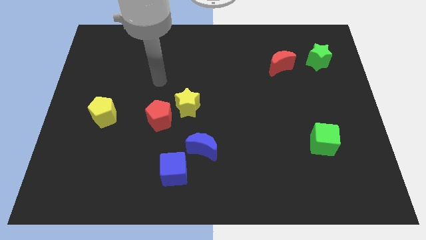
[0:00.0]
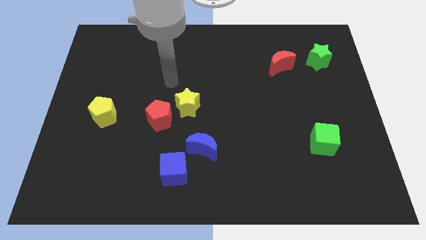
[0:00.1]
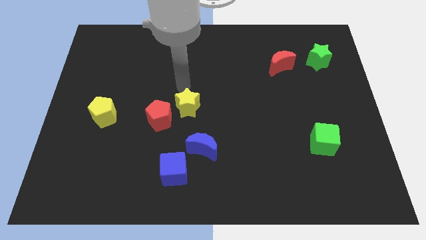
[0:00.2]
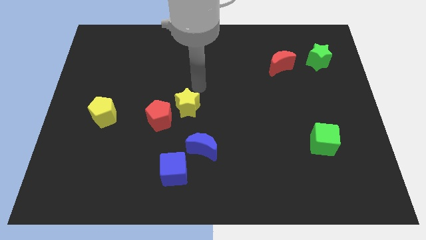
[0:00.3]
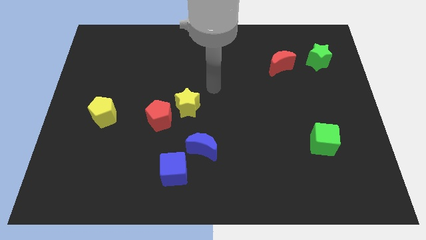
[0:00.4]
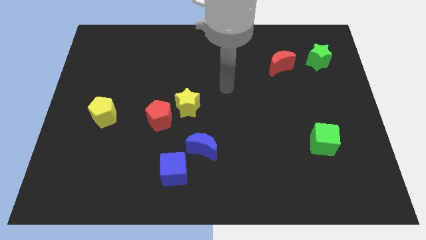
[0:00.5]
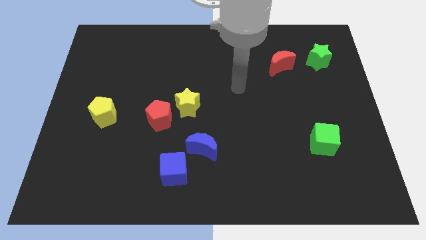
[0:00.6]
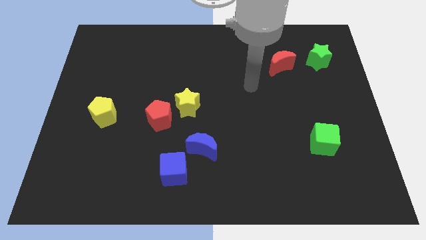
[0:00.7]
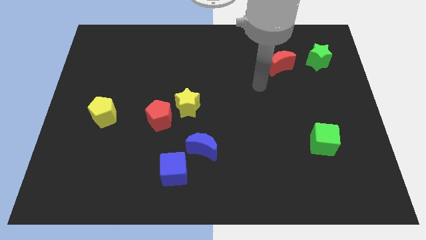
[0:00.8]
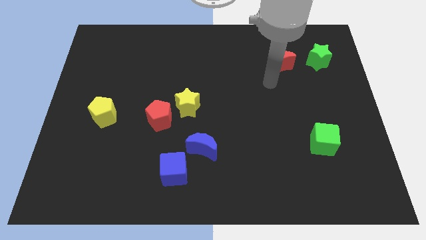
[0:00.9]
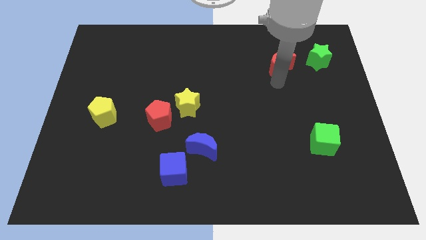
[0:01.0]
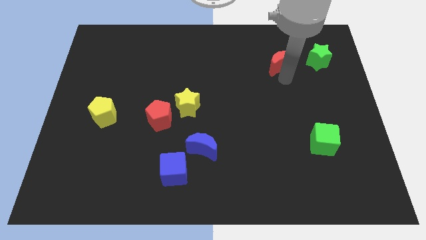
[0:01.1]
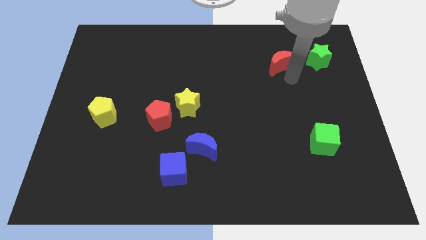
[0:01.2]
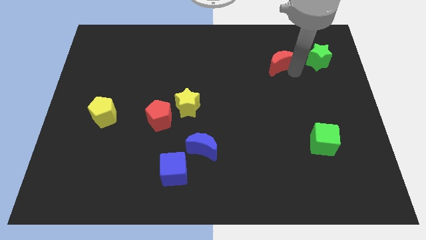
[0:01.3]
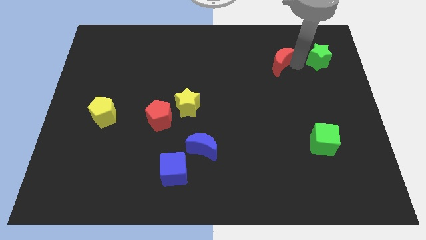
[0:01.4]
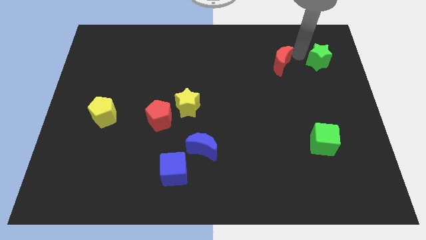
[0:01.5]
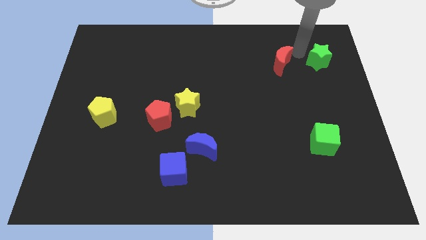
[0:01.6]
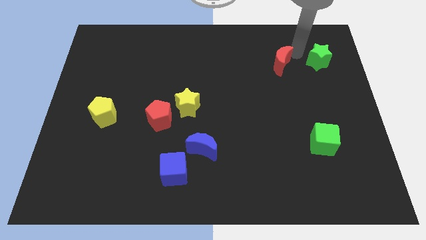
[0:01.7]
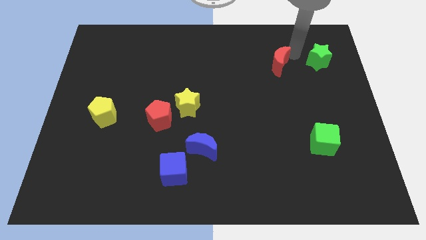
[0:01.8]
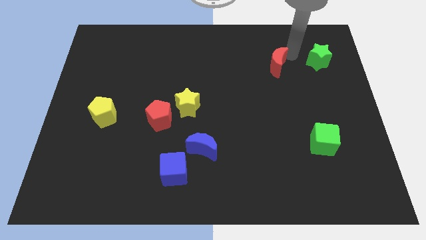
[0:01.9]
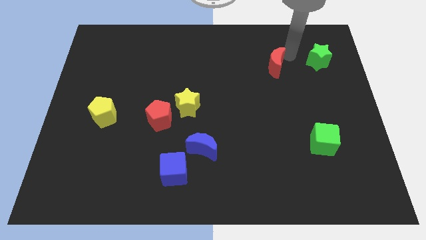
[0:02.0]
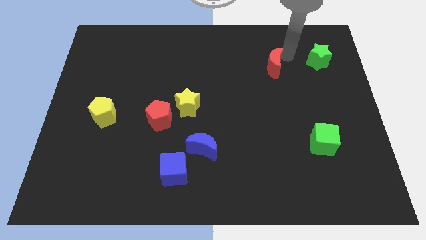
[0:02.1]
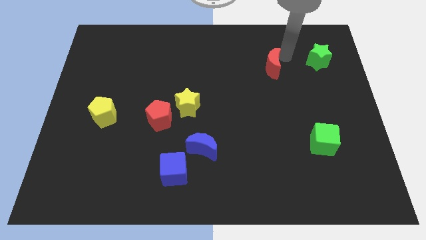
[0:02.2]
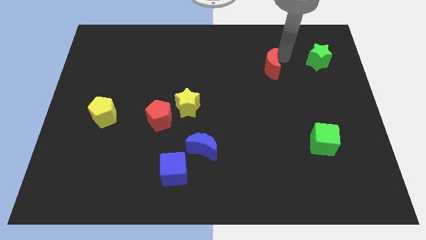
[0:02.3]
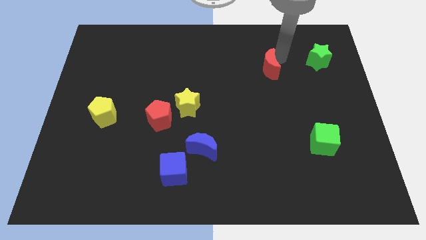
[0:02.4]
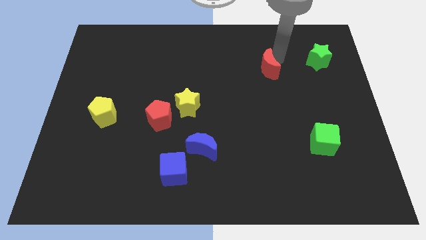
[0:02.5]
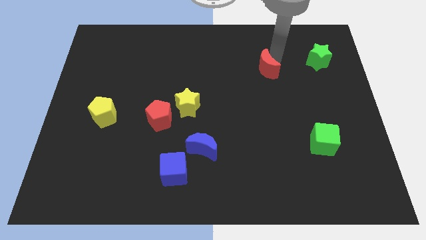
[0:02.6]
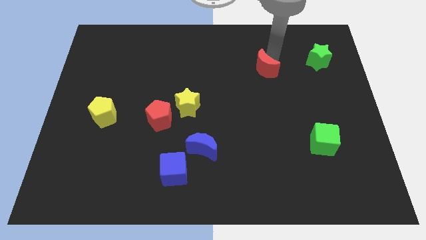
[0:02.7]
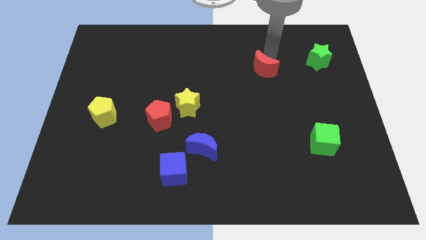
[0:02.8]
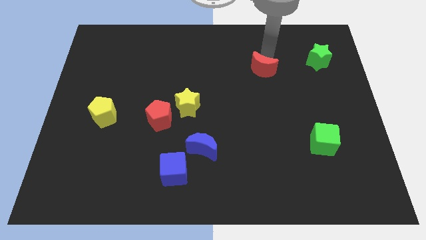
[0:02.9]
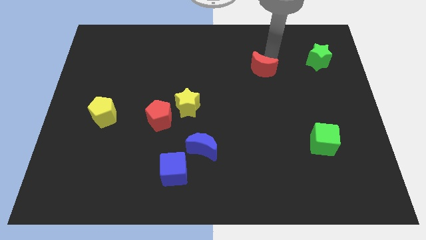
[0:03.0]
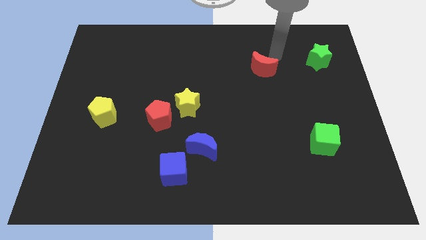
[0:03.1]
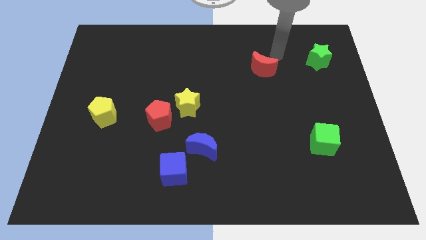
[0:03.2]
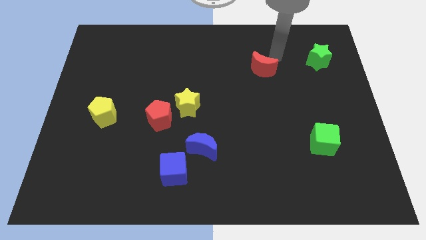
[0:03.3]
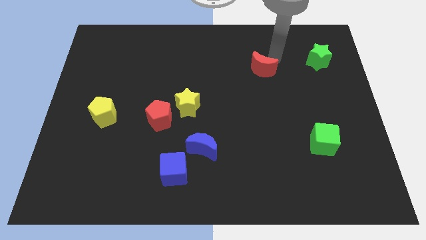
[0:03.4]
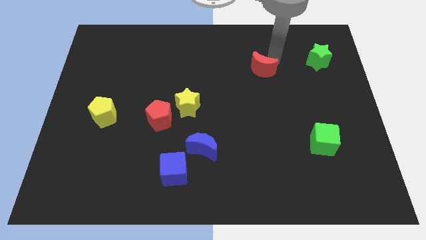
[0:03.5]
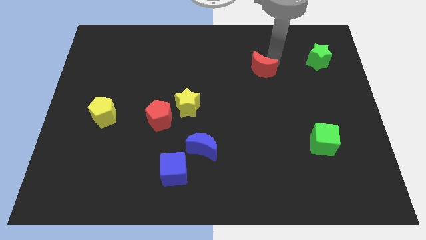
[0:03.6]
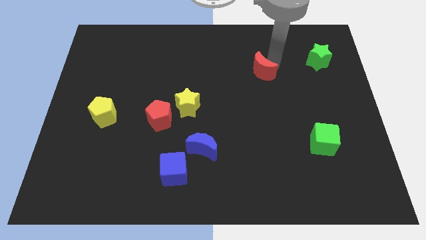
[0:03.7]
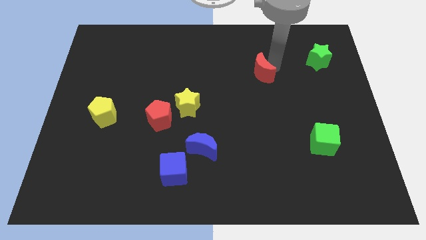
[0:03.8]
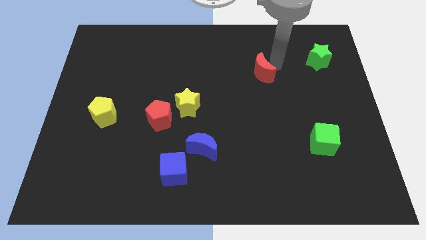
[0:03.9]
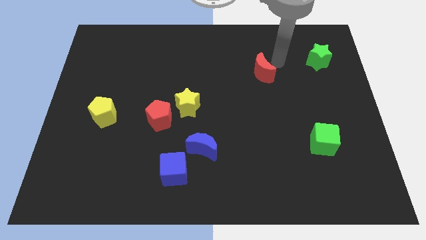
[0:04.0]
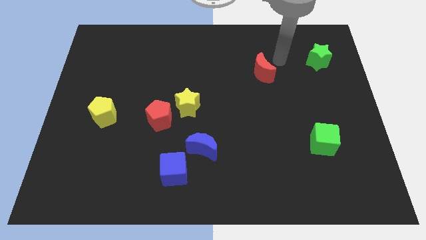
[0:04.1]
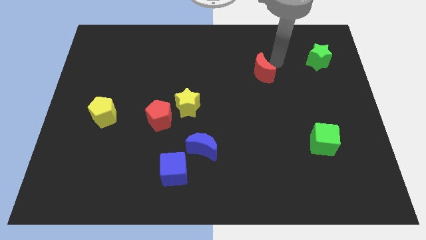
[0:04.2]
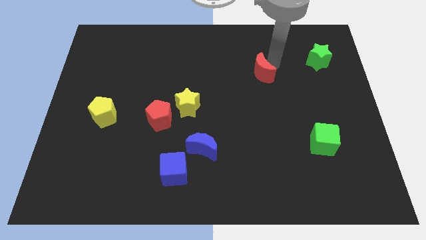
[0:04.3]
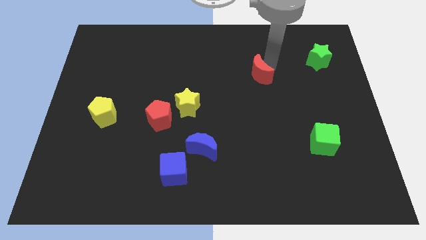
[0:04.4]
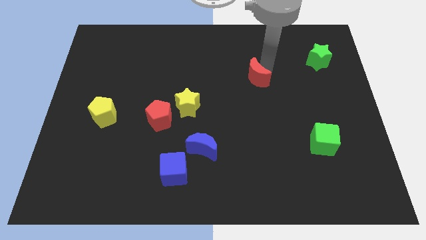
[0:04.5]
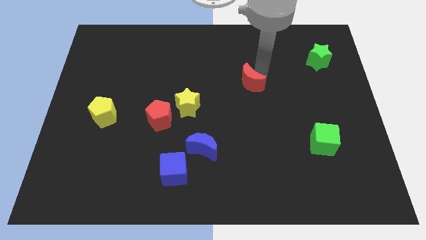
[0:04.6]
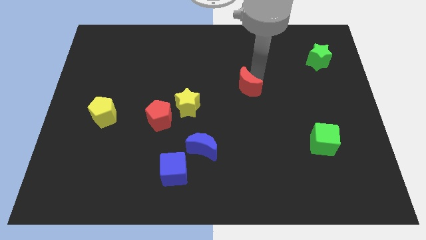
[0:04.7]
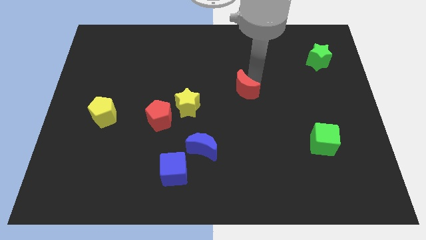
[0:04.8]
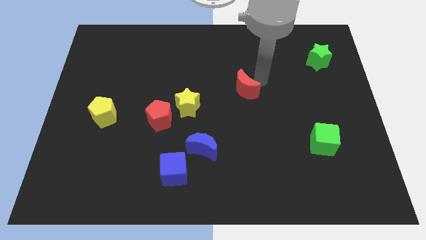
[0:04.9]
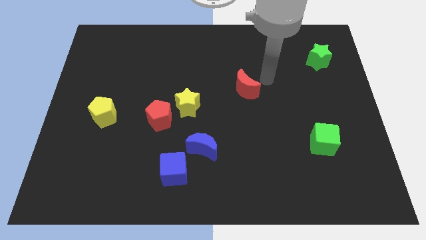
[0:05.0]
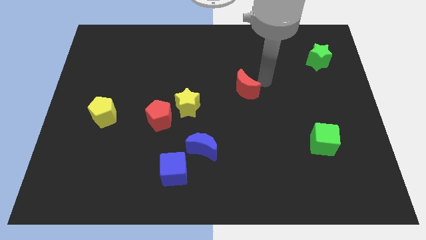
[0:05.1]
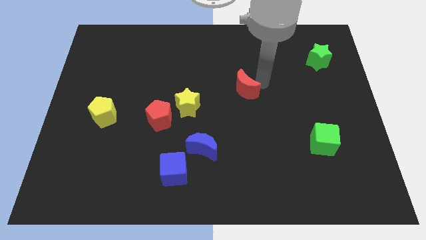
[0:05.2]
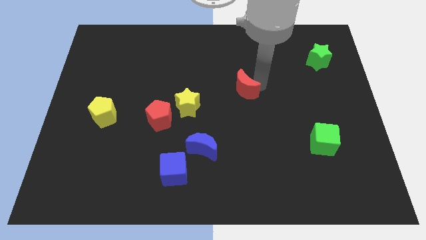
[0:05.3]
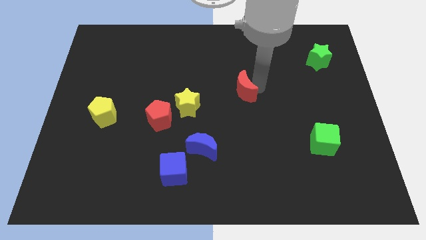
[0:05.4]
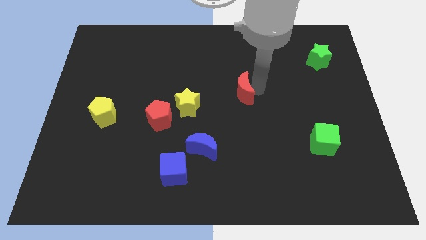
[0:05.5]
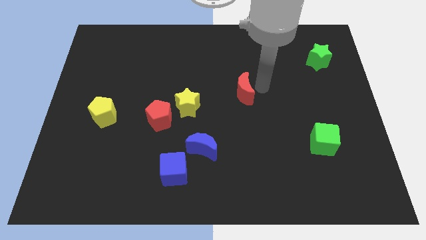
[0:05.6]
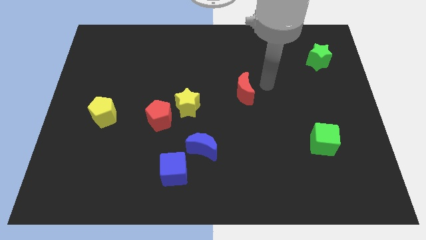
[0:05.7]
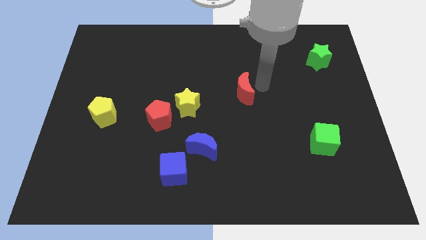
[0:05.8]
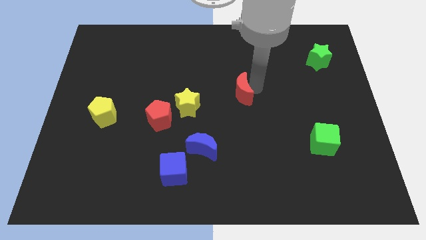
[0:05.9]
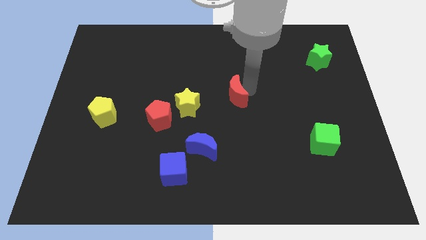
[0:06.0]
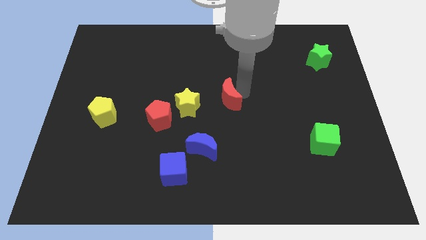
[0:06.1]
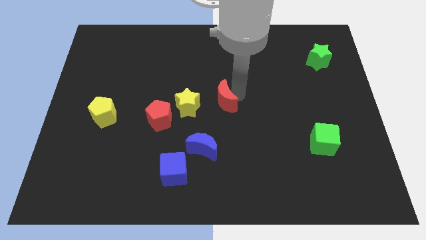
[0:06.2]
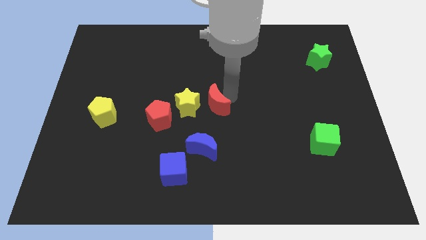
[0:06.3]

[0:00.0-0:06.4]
slide the red moon downwards and to the left

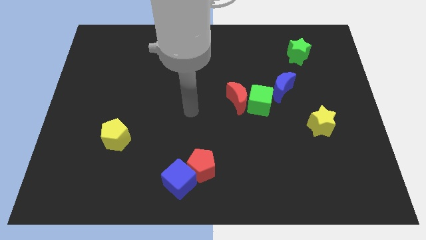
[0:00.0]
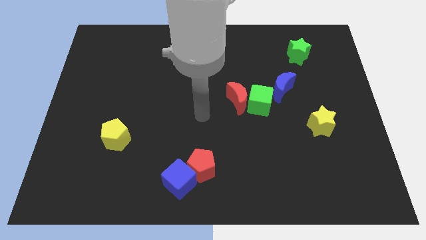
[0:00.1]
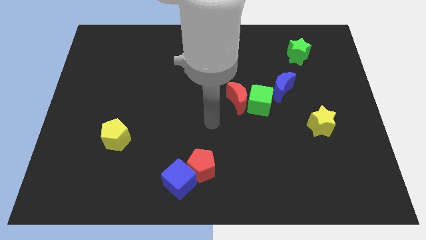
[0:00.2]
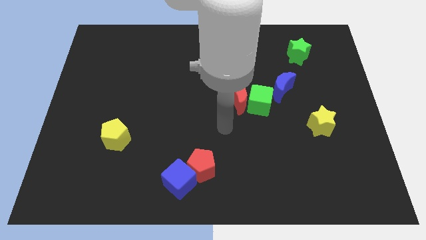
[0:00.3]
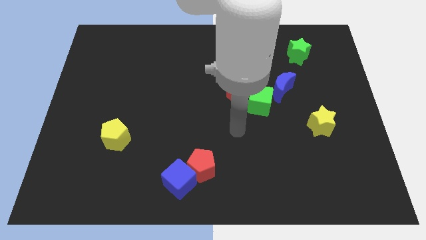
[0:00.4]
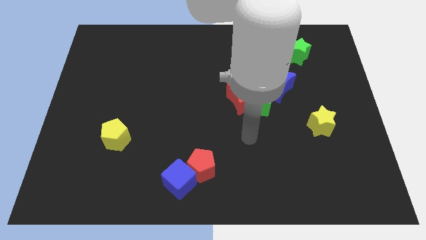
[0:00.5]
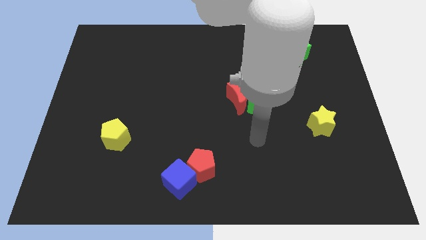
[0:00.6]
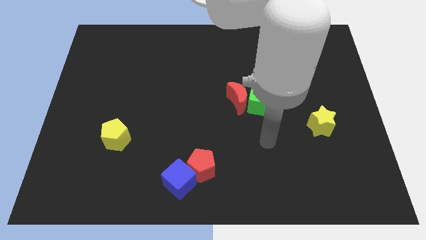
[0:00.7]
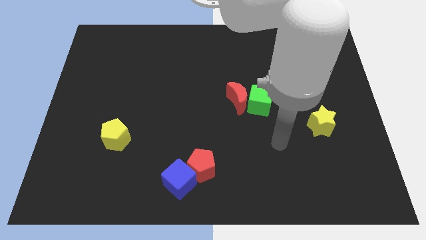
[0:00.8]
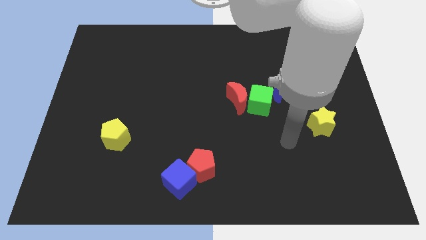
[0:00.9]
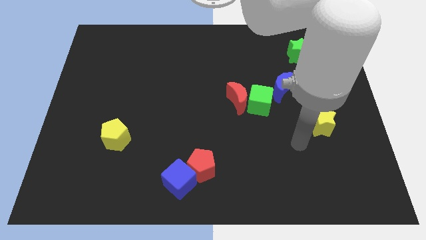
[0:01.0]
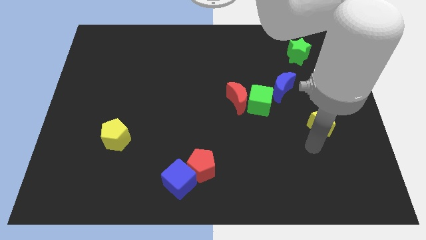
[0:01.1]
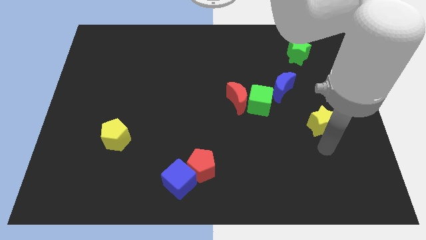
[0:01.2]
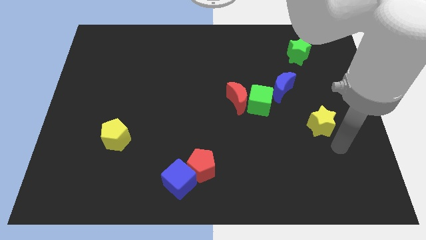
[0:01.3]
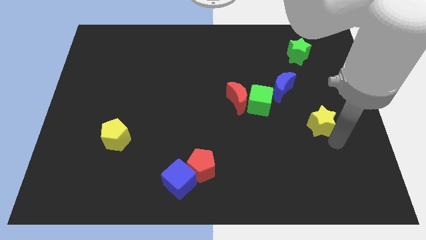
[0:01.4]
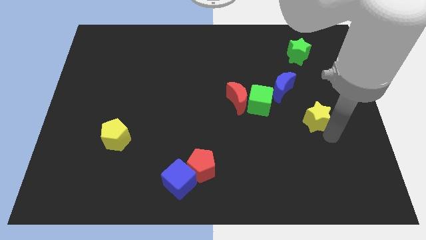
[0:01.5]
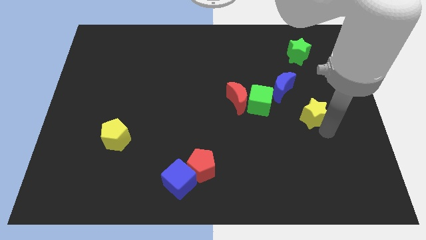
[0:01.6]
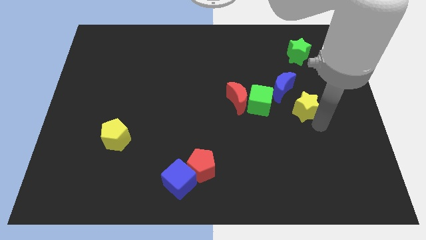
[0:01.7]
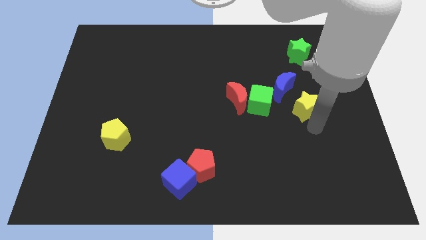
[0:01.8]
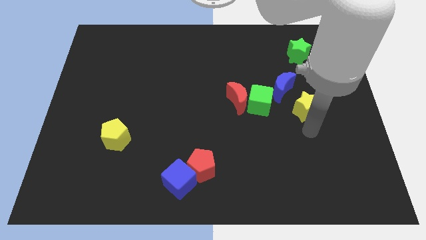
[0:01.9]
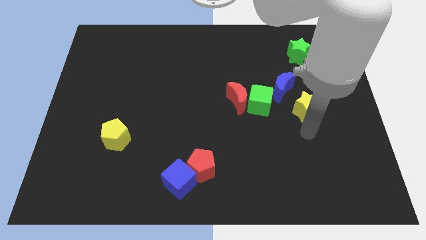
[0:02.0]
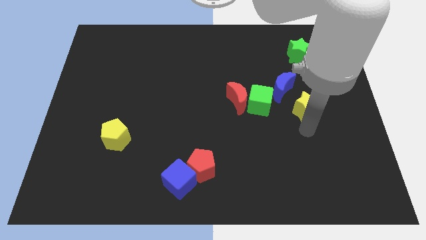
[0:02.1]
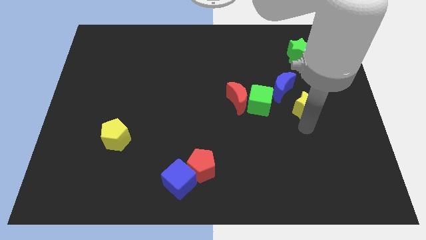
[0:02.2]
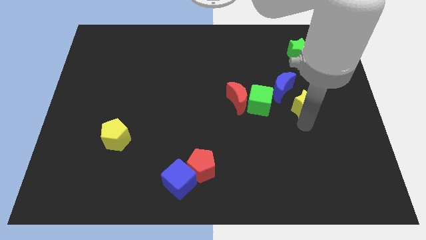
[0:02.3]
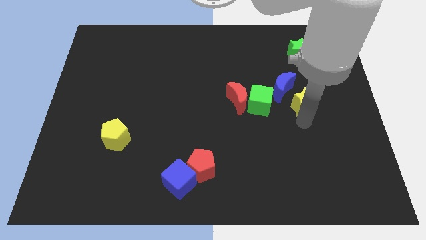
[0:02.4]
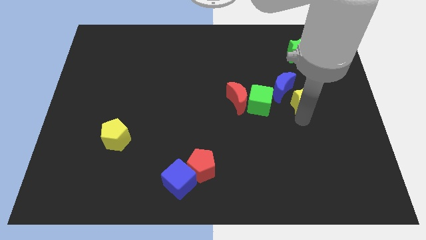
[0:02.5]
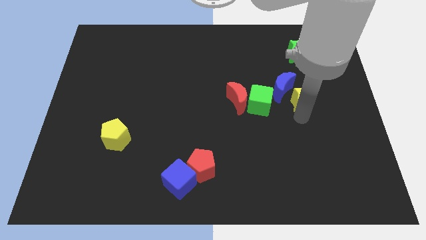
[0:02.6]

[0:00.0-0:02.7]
slide the yellow star diagonally up and left slightly
